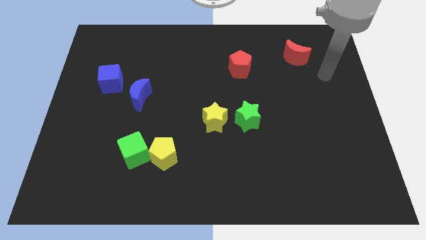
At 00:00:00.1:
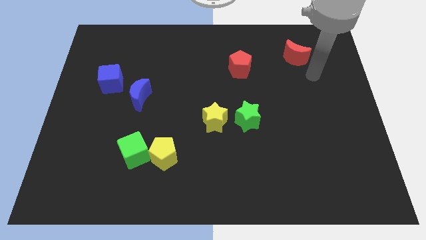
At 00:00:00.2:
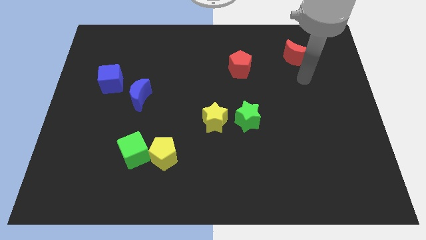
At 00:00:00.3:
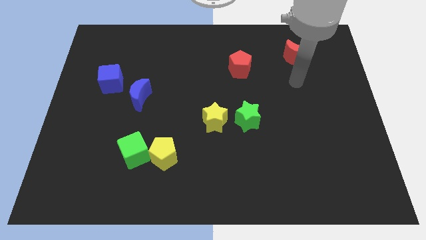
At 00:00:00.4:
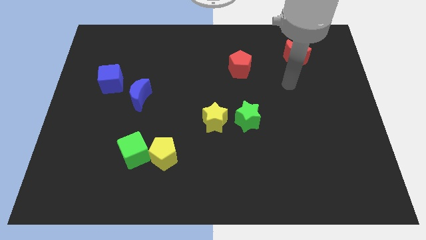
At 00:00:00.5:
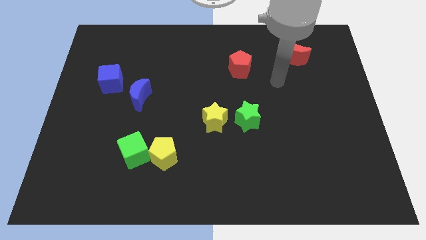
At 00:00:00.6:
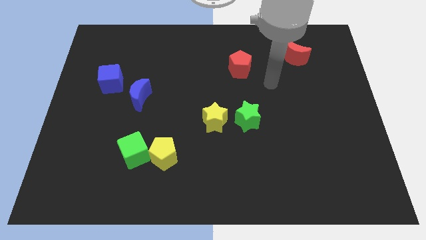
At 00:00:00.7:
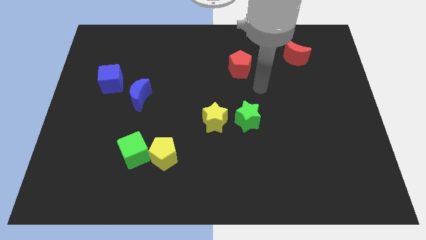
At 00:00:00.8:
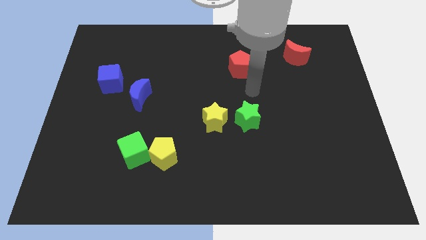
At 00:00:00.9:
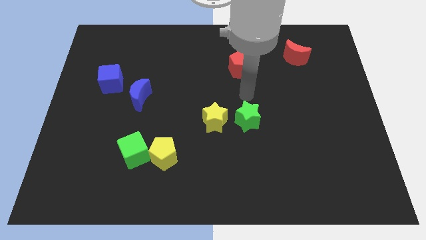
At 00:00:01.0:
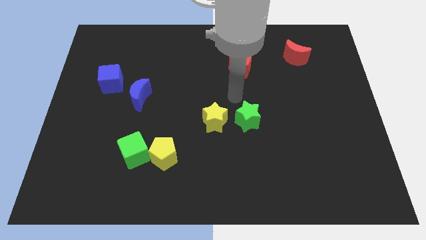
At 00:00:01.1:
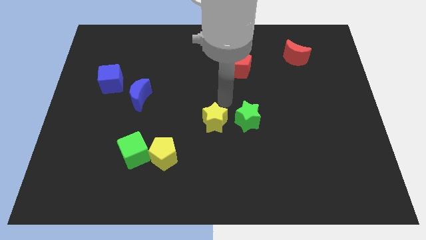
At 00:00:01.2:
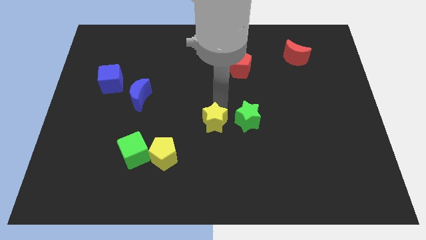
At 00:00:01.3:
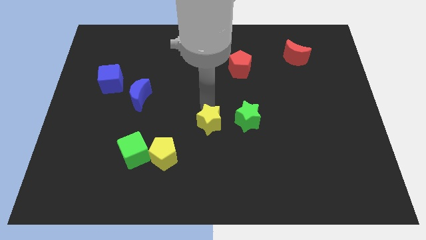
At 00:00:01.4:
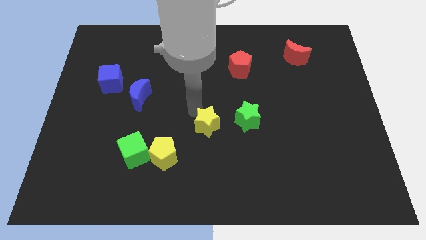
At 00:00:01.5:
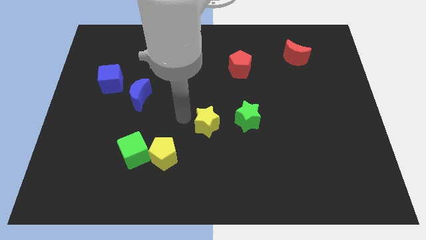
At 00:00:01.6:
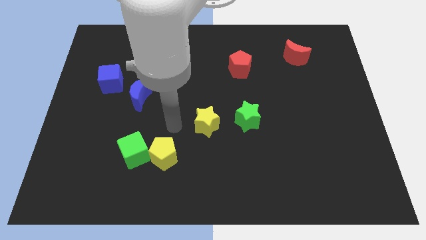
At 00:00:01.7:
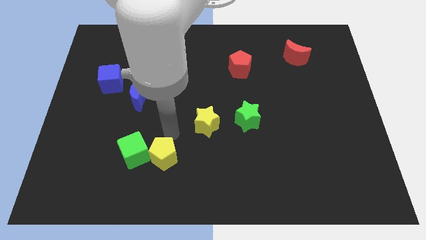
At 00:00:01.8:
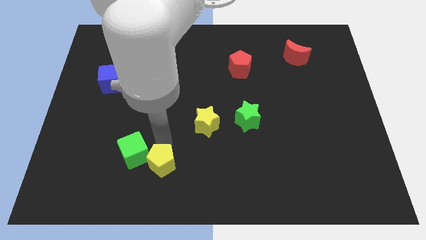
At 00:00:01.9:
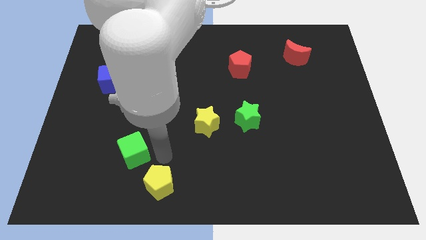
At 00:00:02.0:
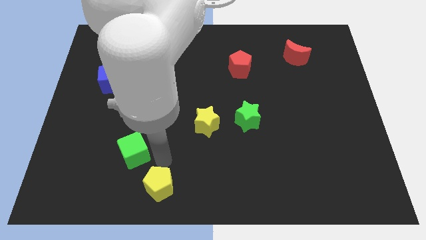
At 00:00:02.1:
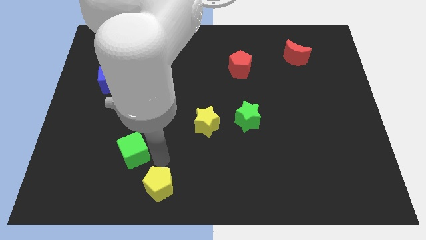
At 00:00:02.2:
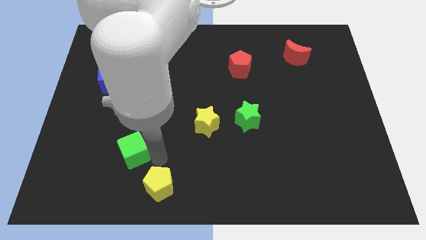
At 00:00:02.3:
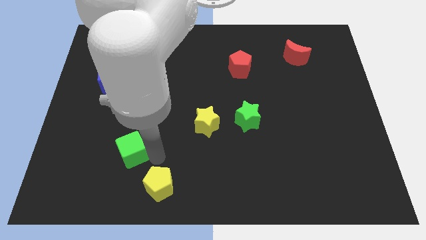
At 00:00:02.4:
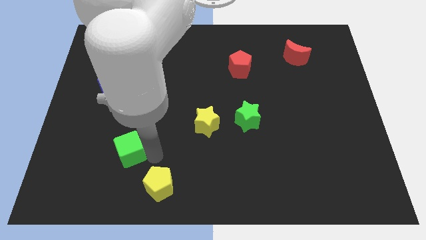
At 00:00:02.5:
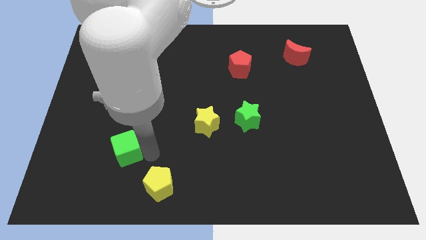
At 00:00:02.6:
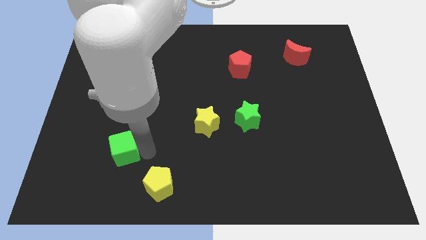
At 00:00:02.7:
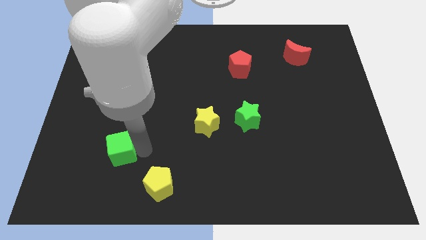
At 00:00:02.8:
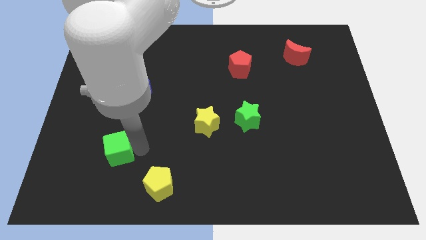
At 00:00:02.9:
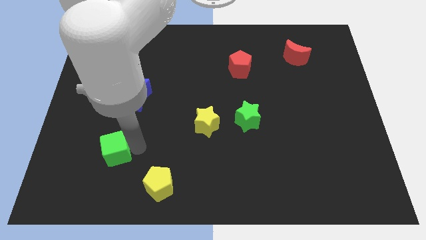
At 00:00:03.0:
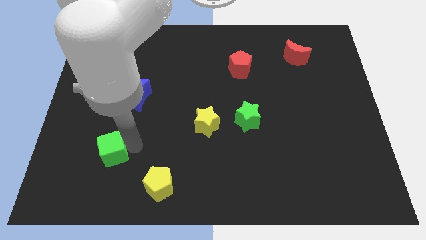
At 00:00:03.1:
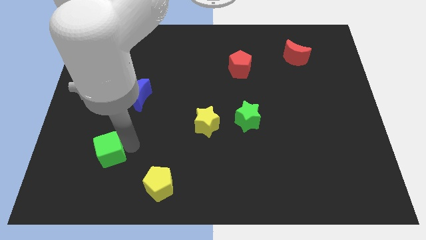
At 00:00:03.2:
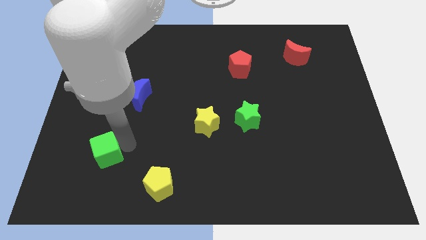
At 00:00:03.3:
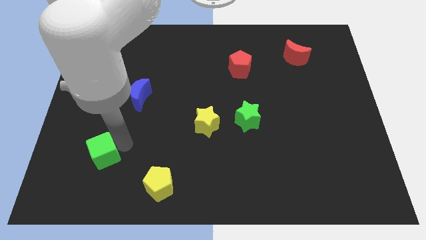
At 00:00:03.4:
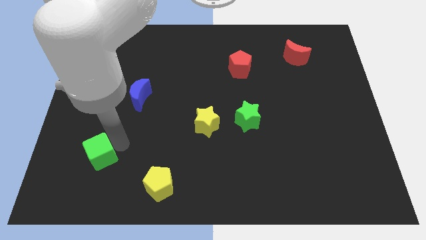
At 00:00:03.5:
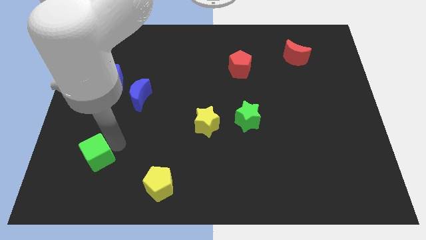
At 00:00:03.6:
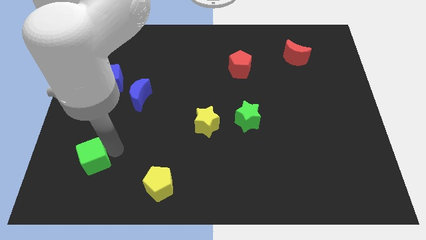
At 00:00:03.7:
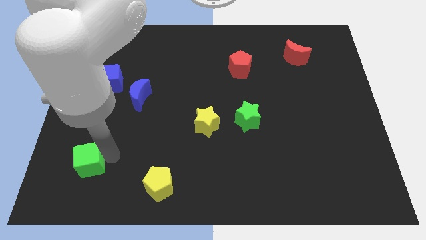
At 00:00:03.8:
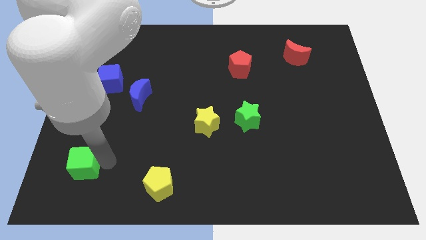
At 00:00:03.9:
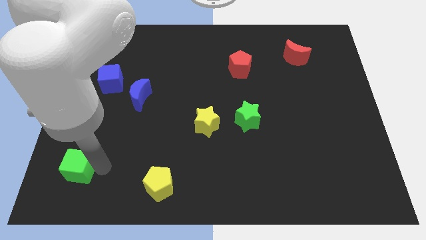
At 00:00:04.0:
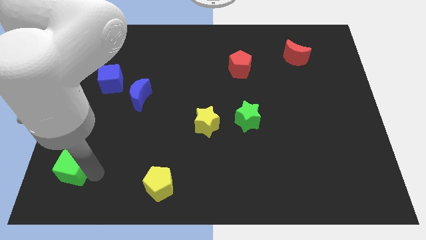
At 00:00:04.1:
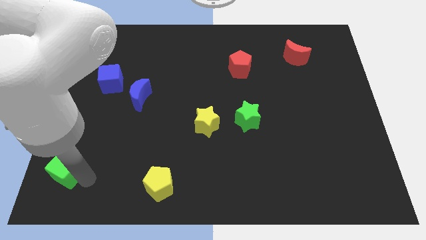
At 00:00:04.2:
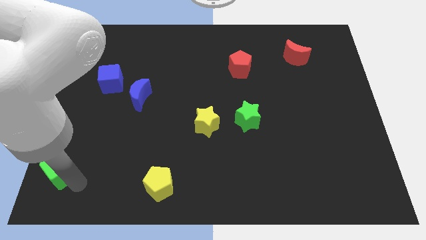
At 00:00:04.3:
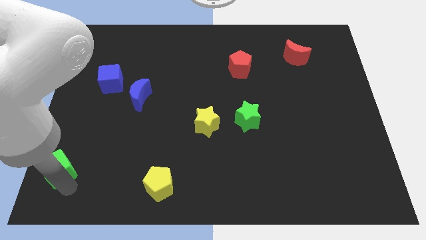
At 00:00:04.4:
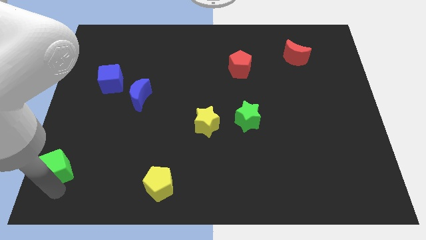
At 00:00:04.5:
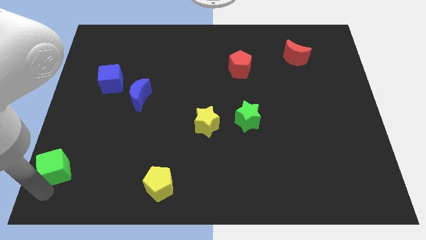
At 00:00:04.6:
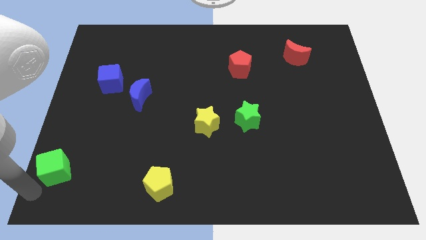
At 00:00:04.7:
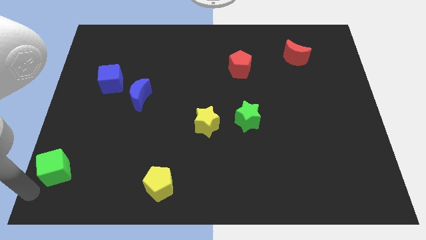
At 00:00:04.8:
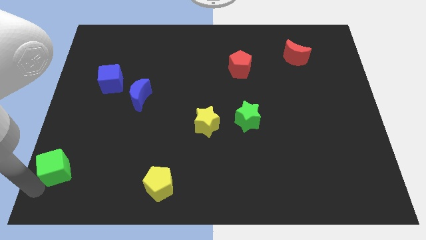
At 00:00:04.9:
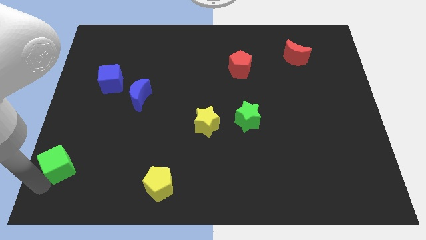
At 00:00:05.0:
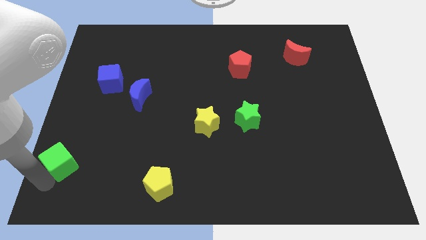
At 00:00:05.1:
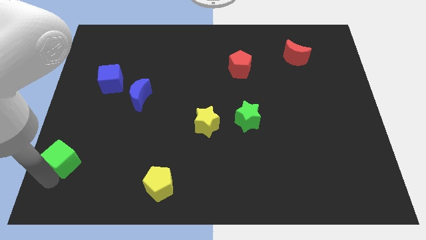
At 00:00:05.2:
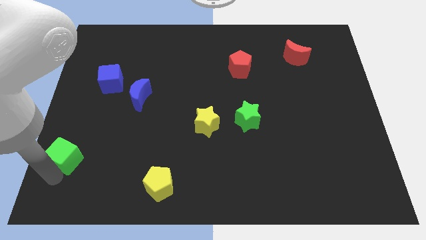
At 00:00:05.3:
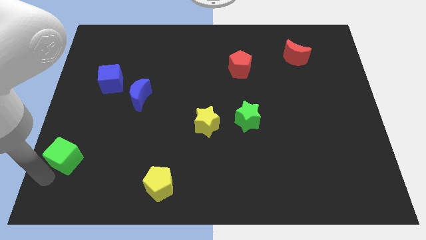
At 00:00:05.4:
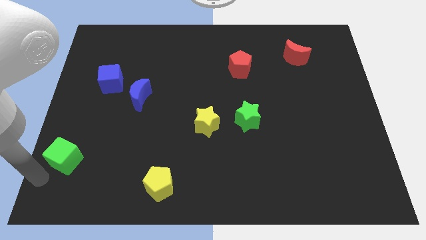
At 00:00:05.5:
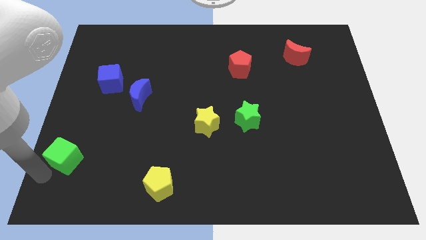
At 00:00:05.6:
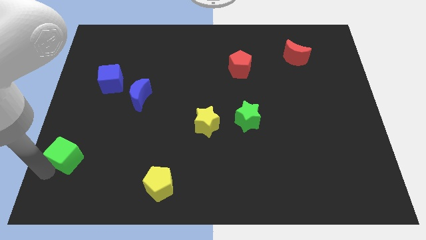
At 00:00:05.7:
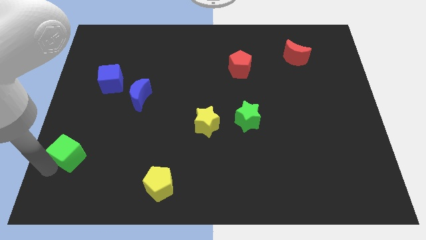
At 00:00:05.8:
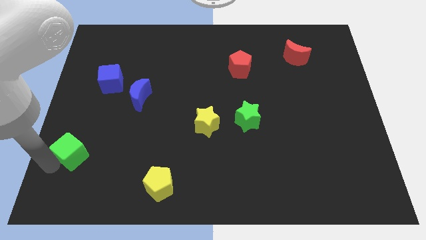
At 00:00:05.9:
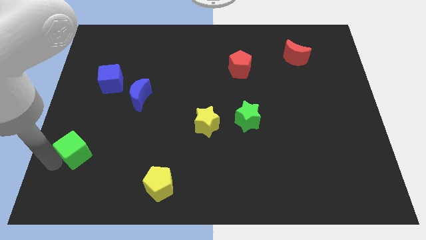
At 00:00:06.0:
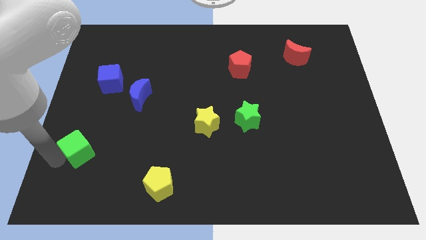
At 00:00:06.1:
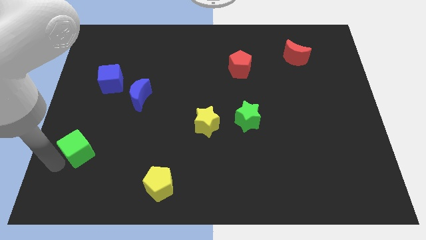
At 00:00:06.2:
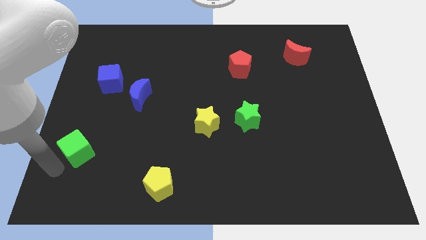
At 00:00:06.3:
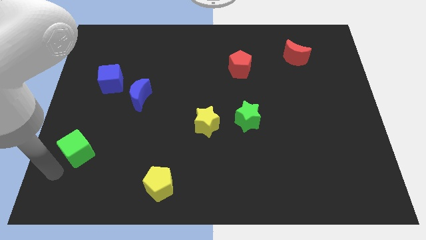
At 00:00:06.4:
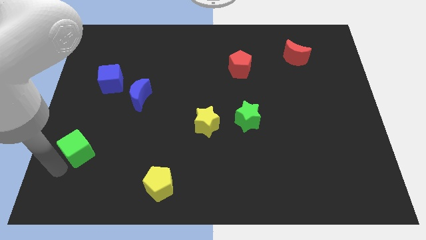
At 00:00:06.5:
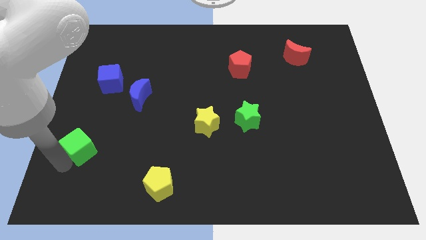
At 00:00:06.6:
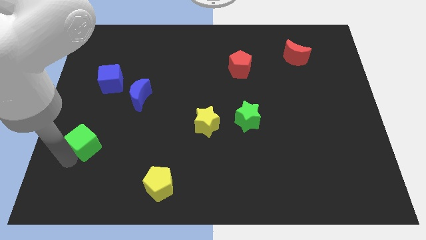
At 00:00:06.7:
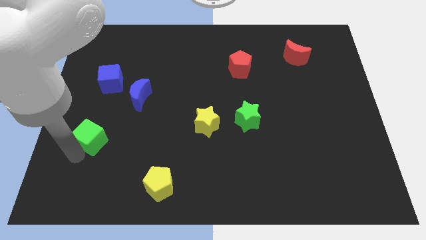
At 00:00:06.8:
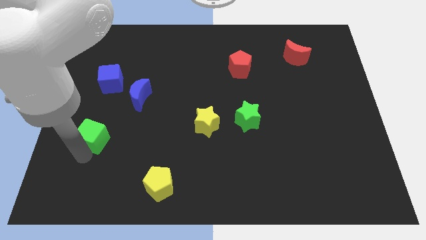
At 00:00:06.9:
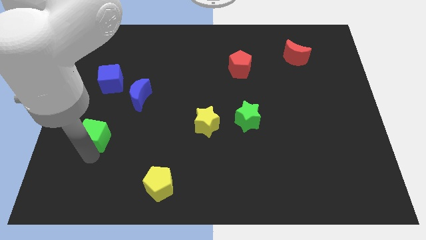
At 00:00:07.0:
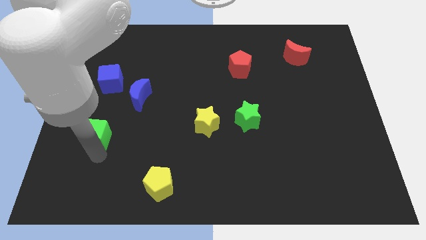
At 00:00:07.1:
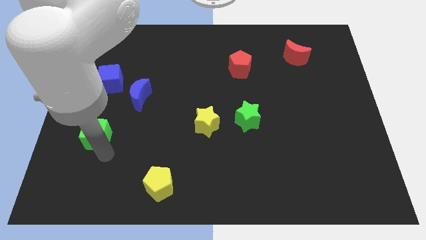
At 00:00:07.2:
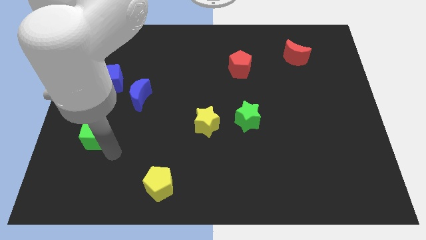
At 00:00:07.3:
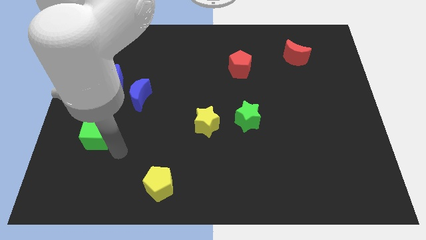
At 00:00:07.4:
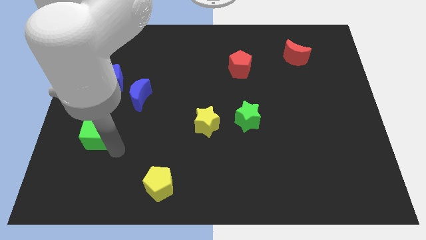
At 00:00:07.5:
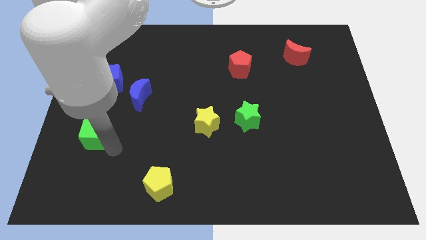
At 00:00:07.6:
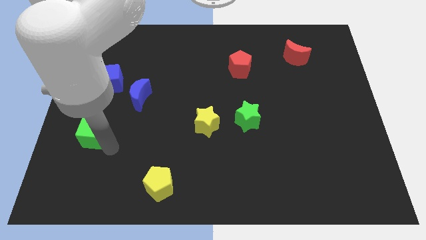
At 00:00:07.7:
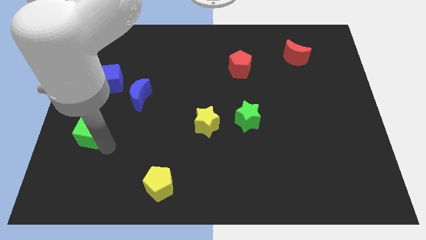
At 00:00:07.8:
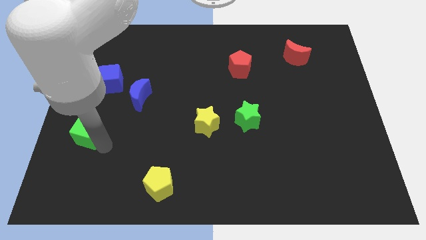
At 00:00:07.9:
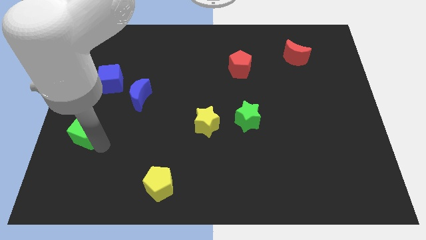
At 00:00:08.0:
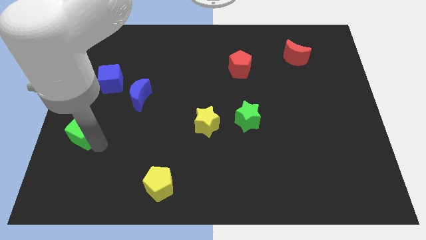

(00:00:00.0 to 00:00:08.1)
put the green cube to the center left
